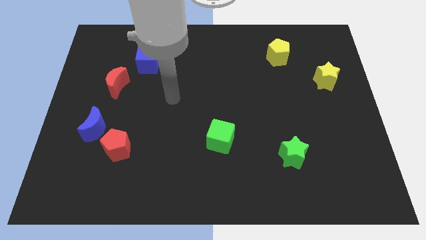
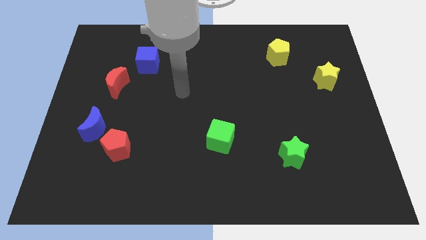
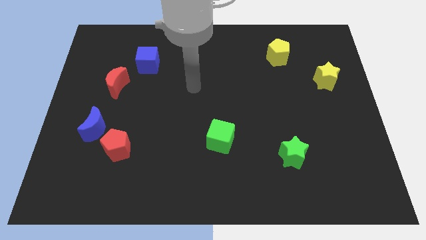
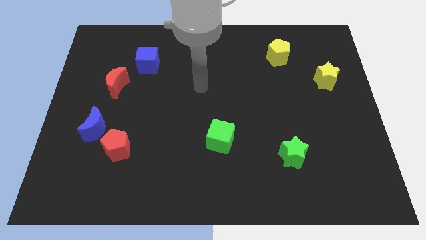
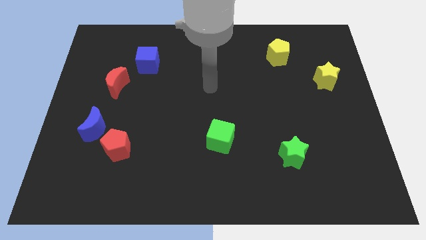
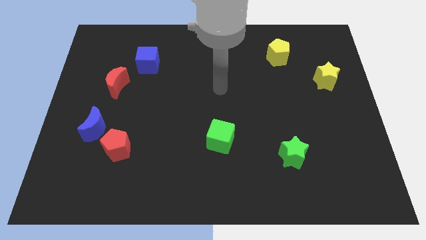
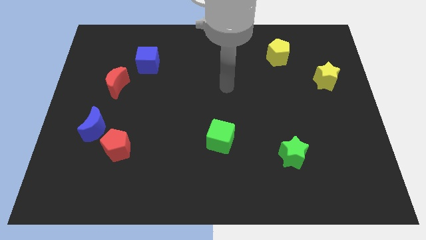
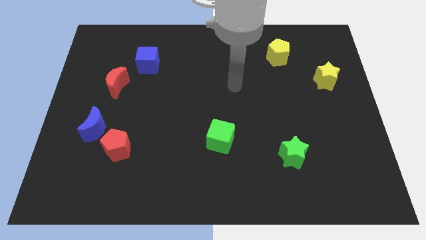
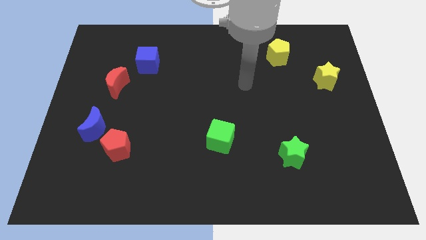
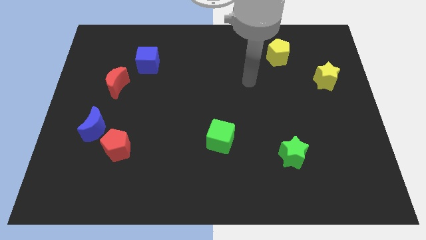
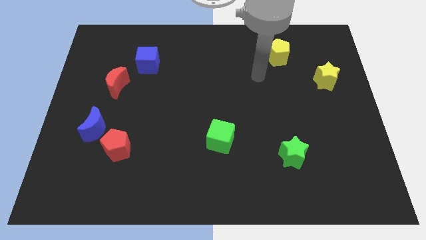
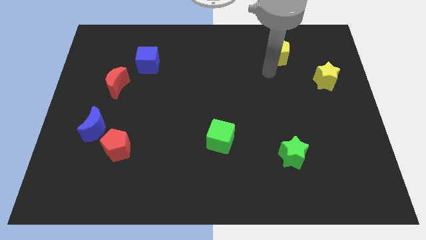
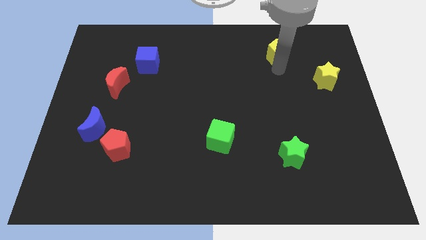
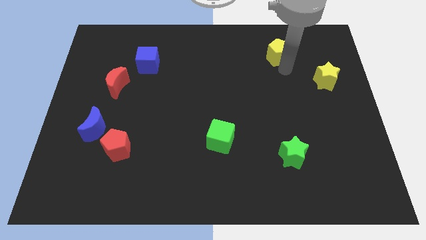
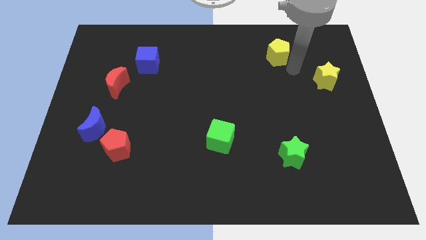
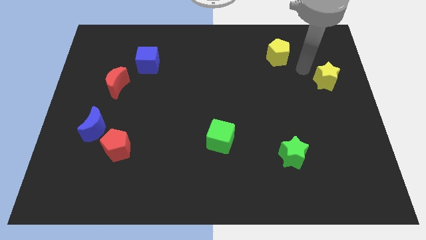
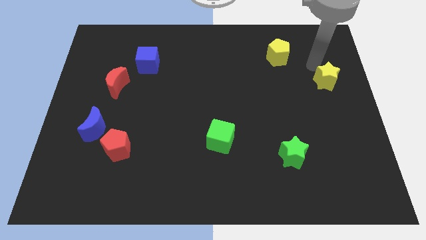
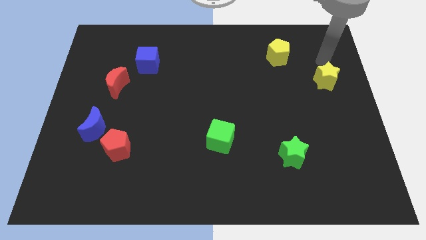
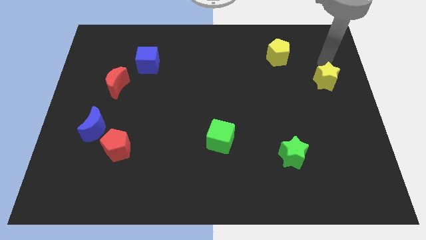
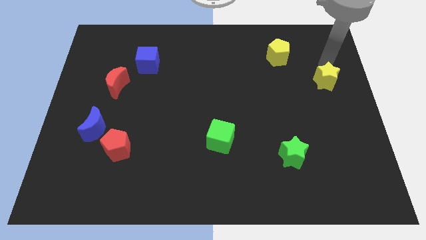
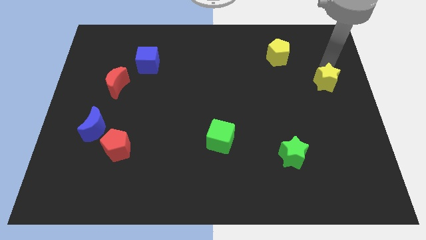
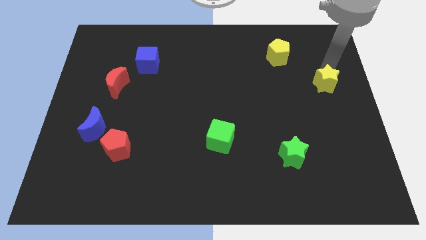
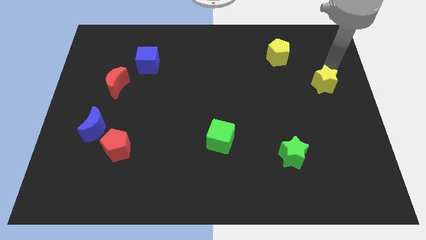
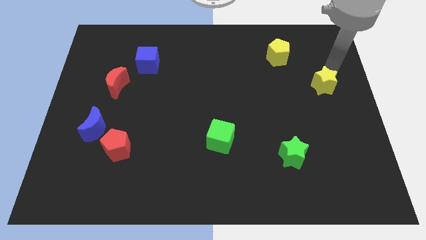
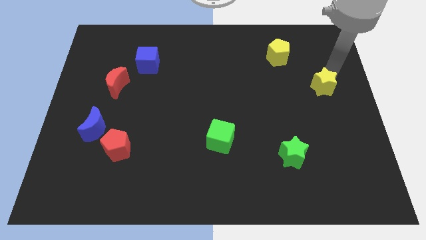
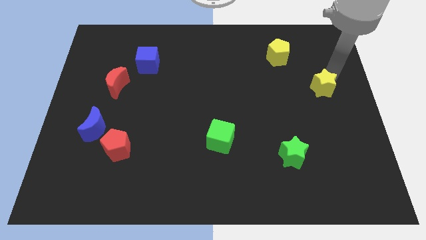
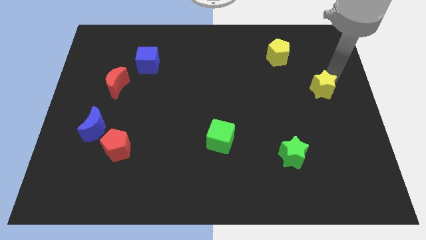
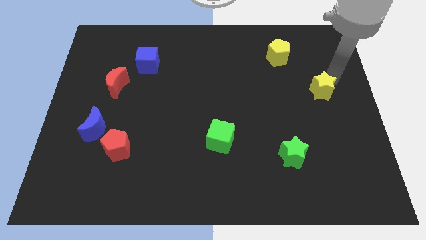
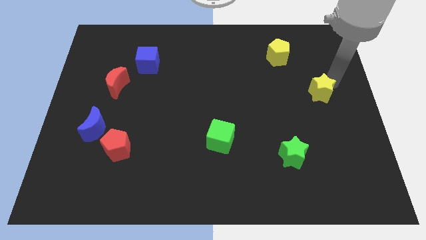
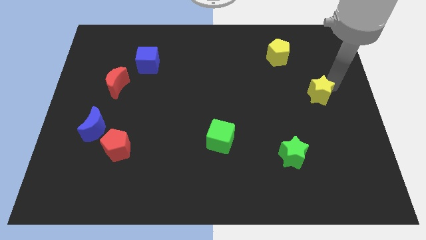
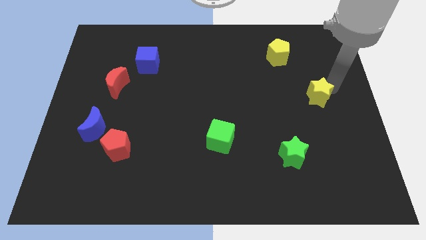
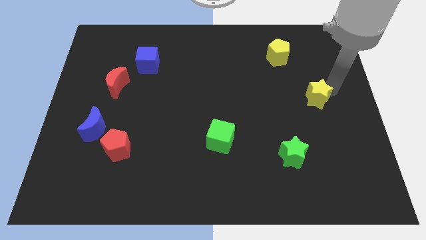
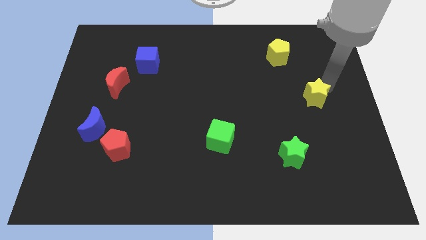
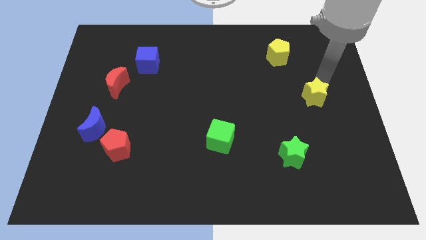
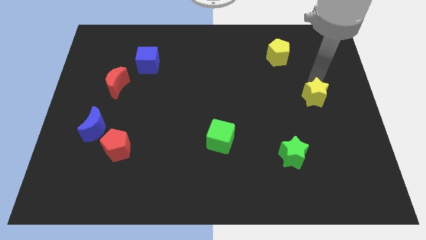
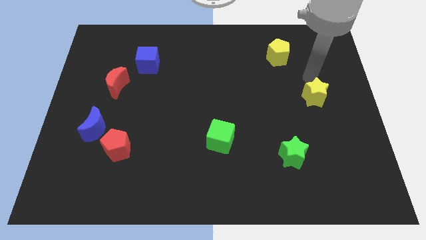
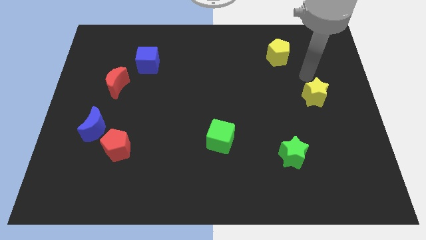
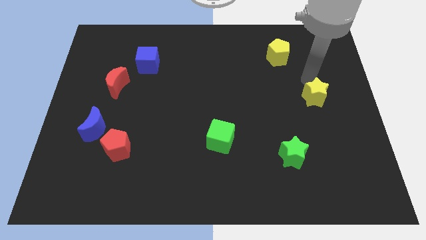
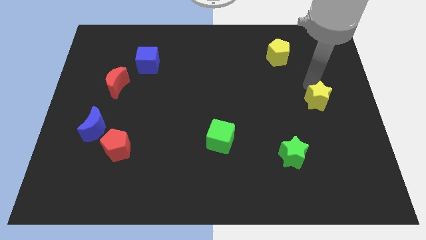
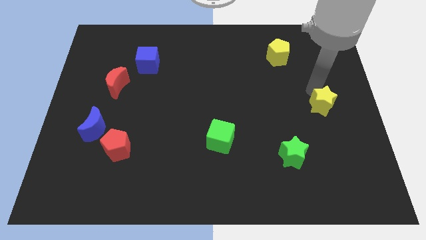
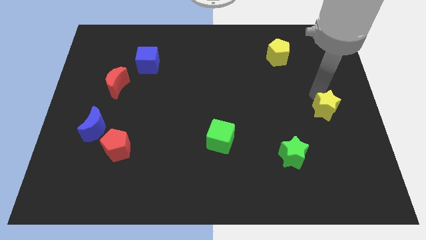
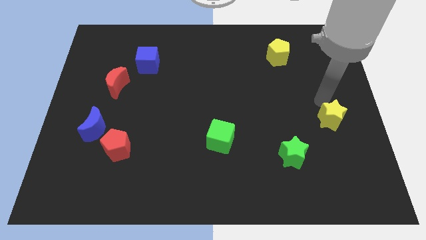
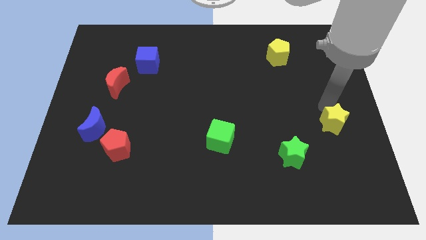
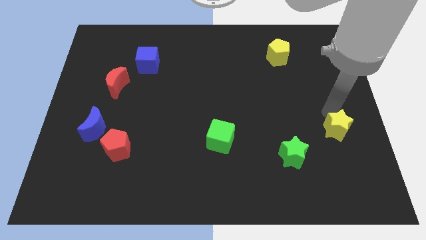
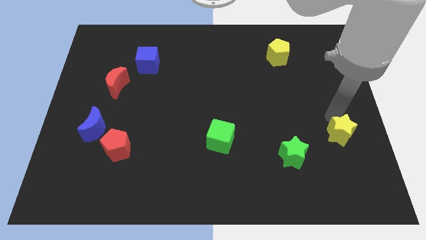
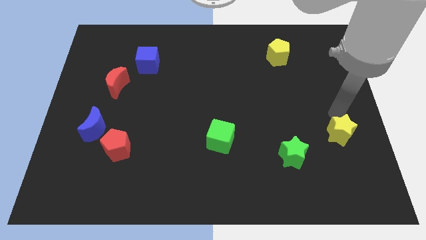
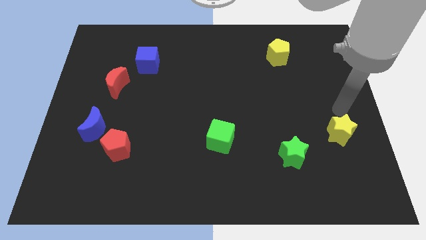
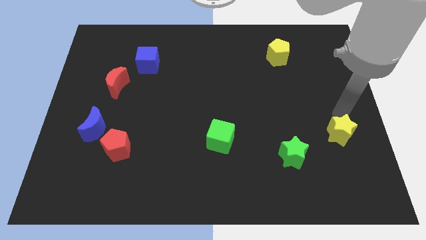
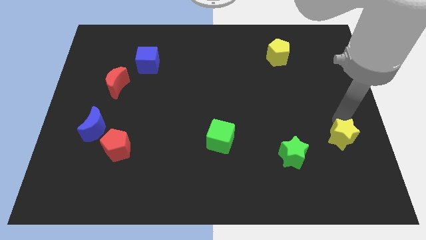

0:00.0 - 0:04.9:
put the yellow star to the right of the green star

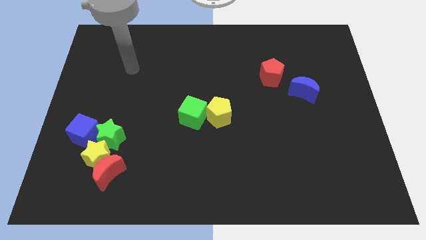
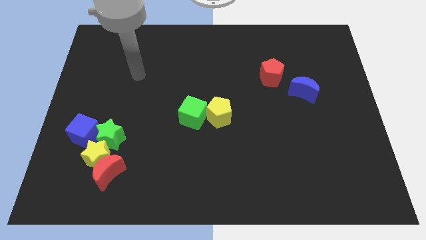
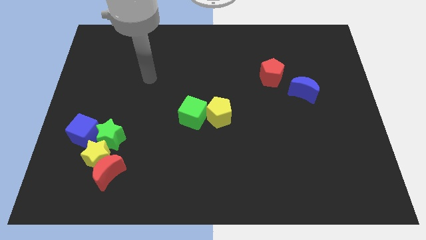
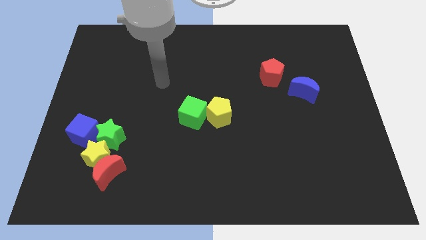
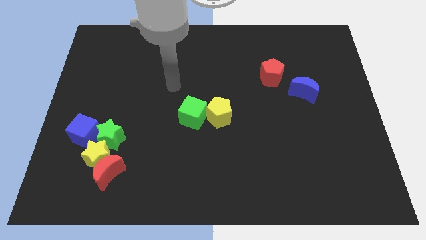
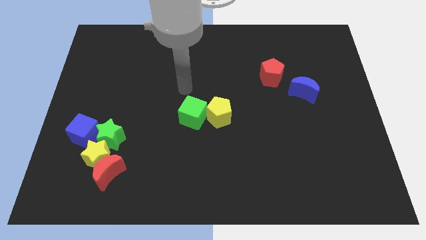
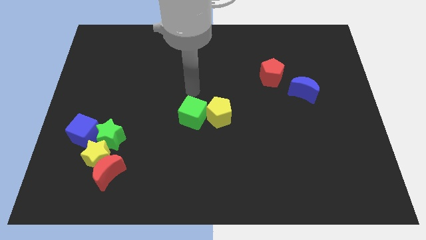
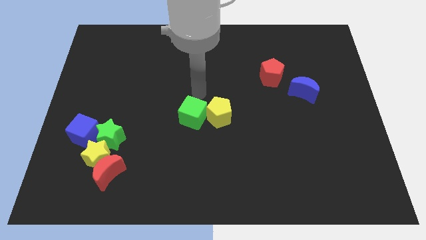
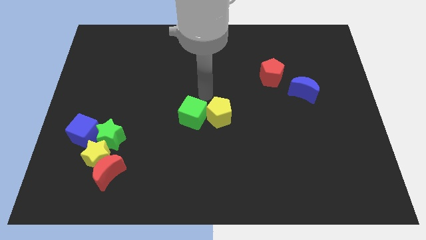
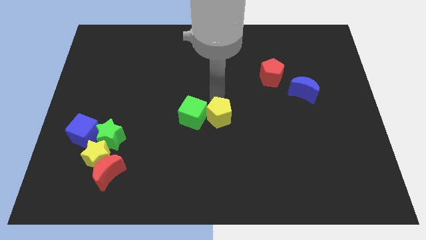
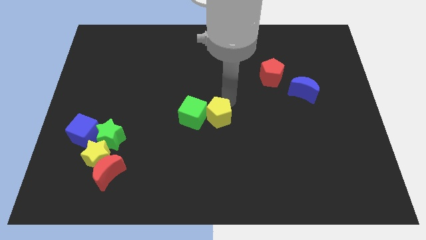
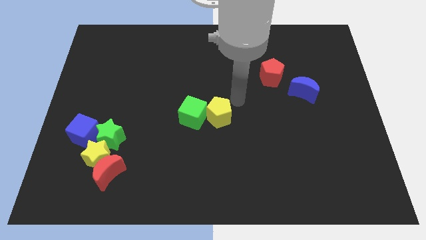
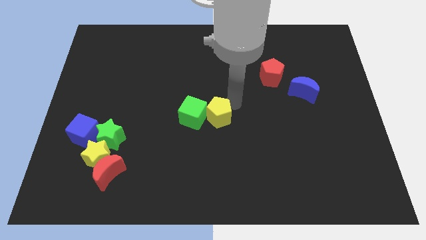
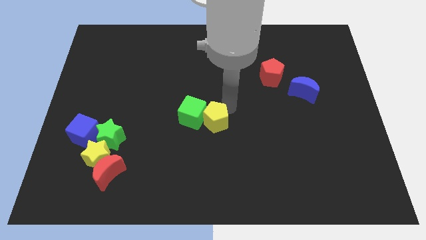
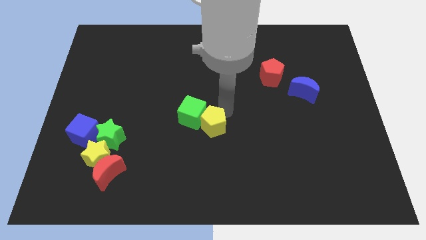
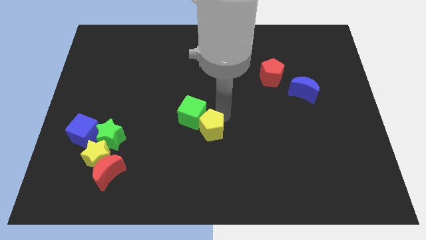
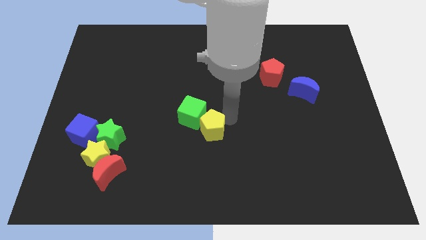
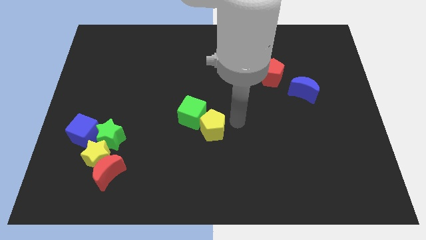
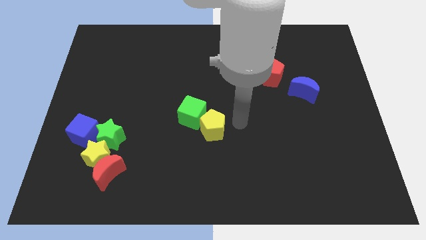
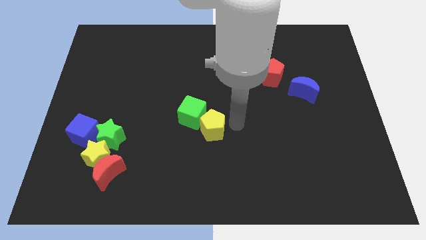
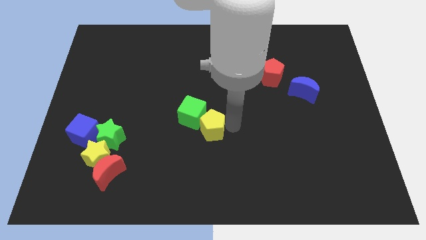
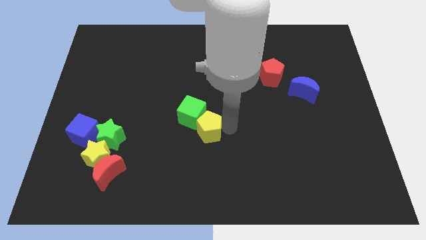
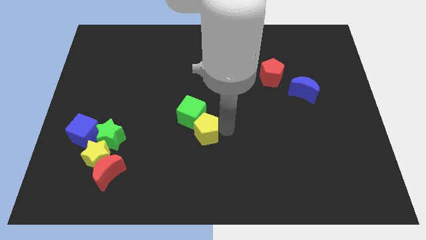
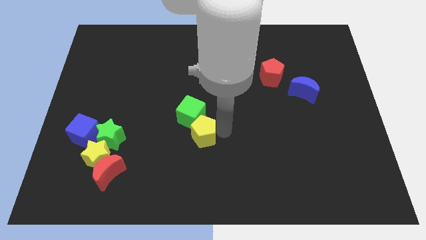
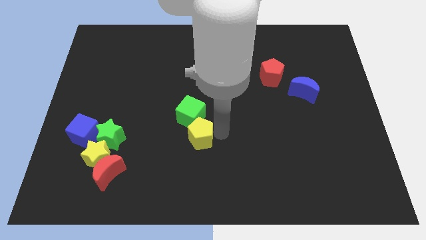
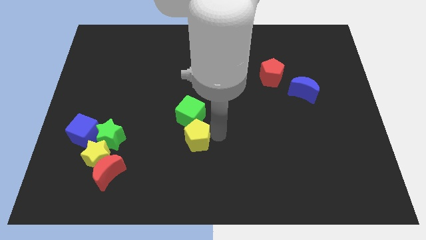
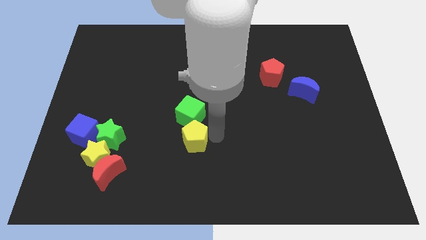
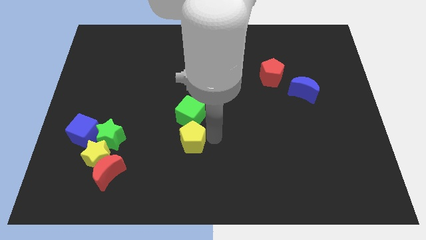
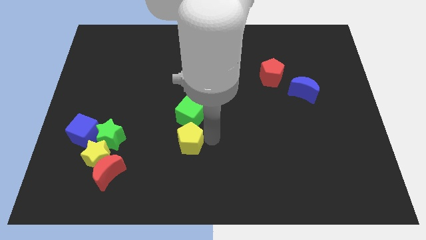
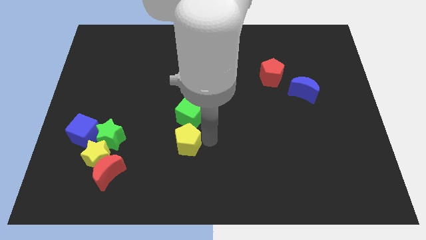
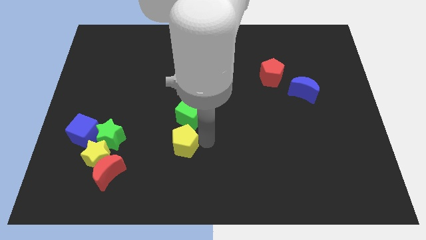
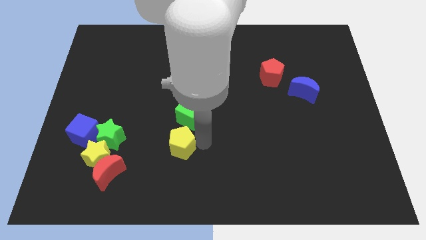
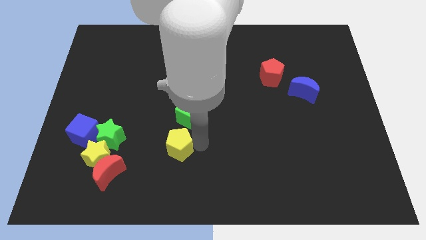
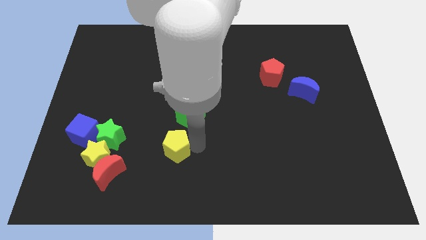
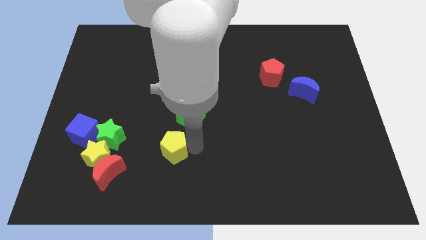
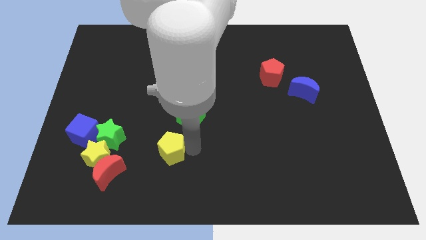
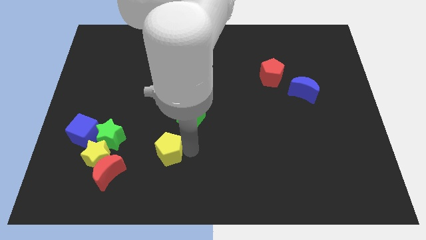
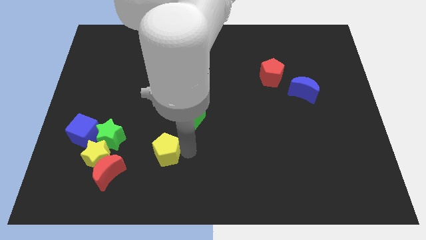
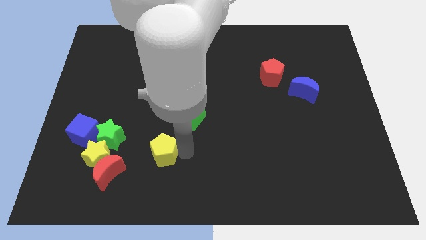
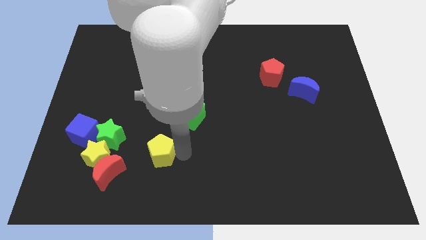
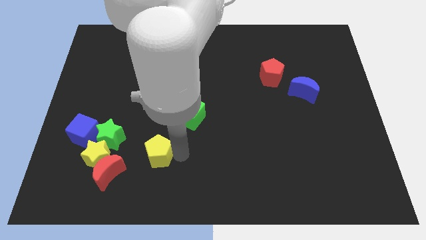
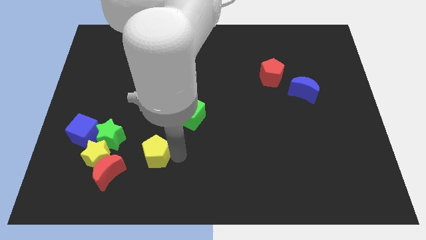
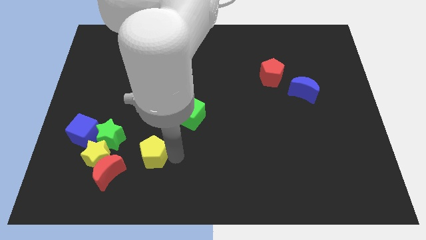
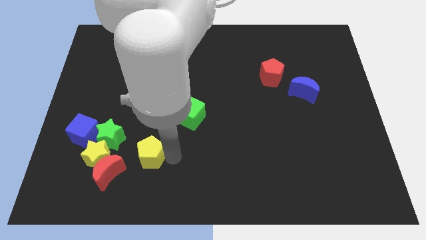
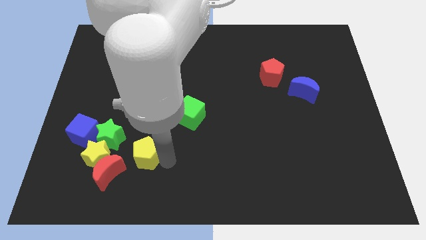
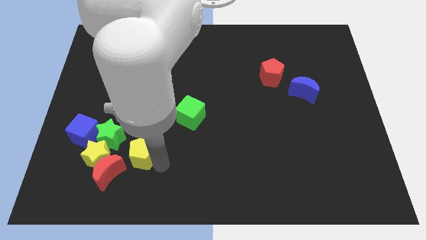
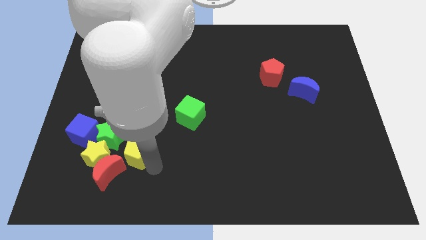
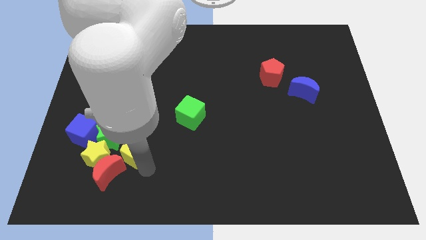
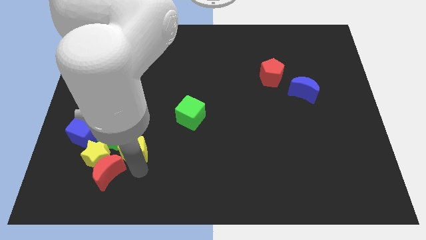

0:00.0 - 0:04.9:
push the yellow pentagon above the red moon
